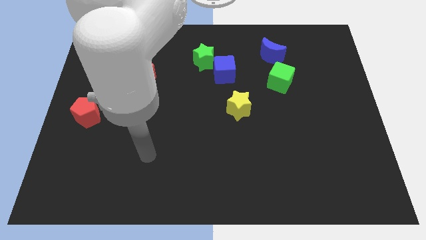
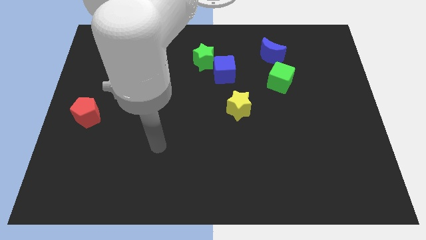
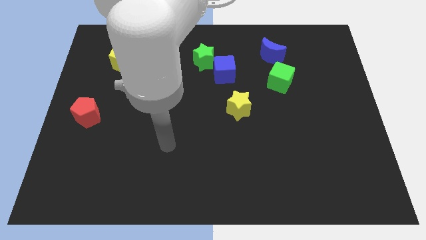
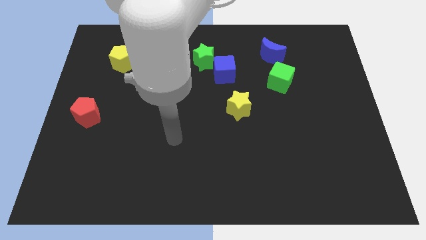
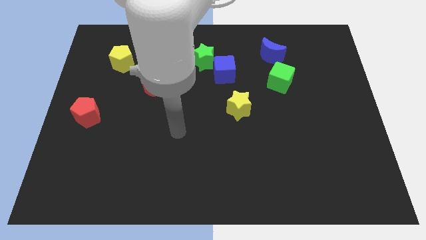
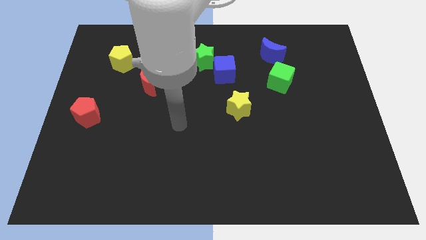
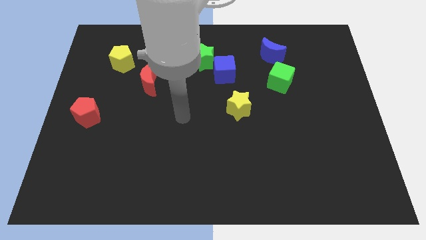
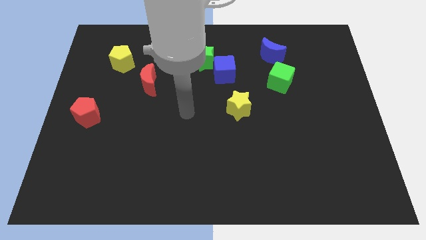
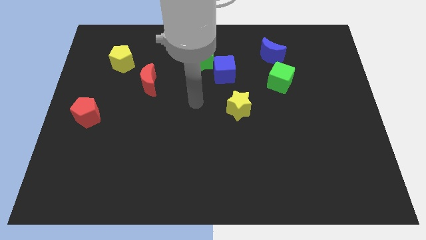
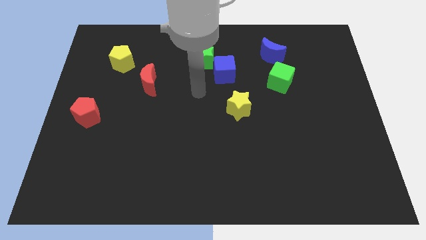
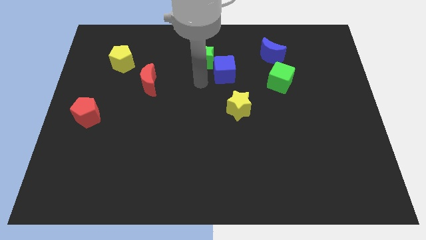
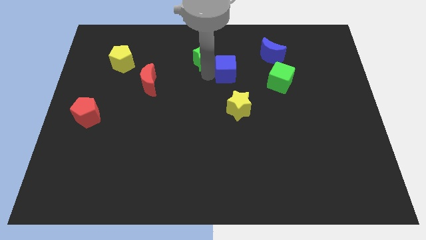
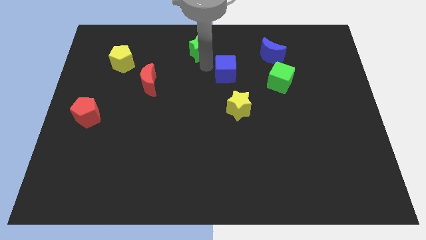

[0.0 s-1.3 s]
move the blue cube away from the green star

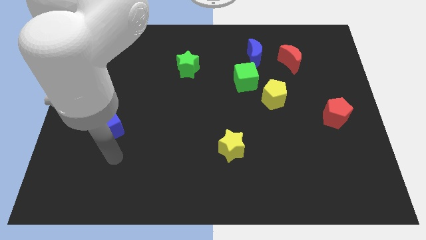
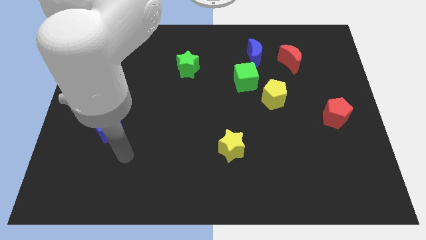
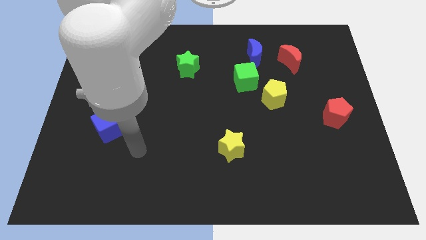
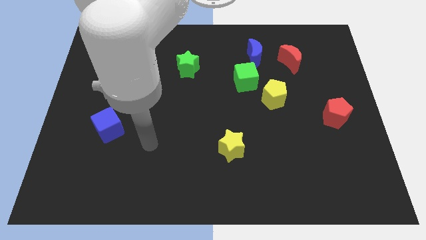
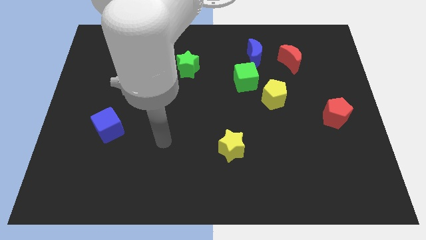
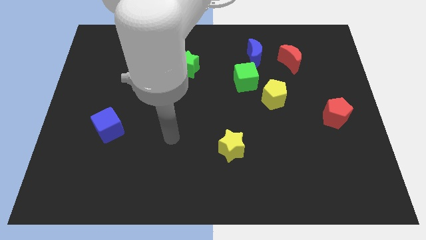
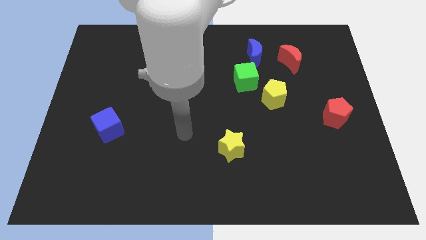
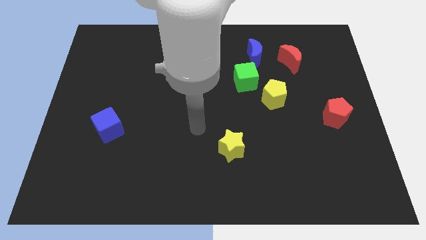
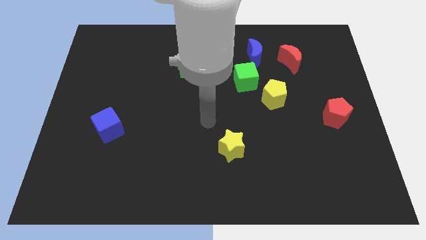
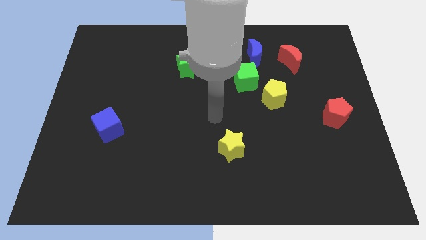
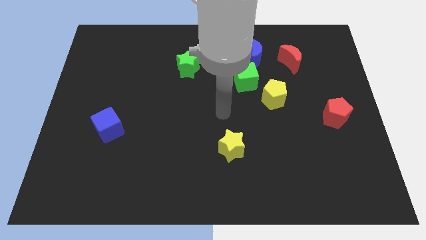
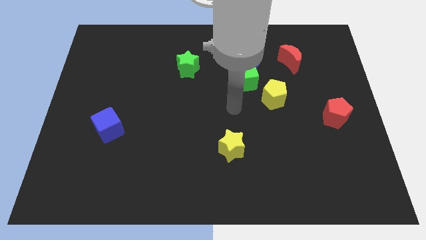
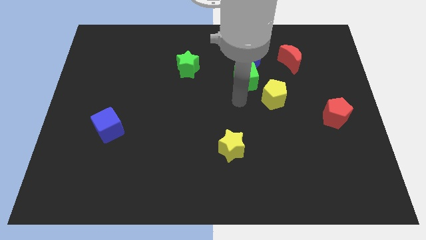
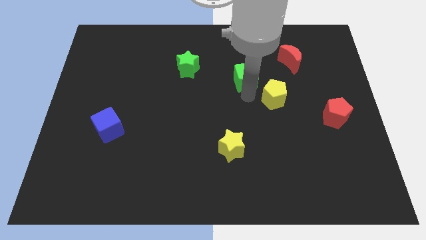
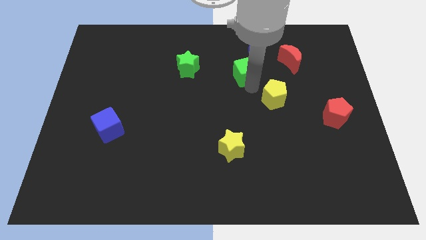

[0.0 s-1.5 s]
separate the yellow pentagon from the green cube

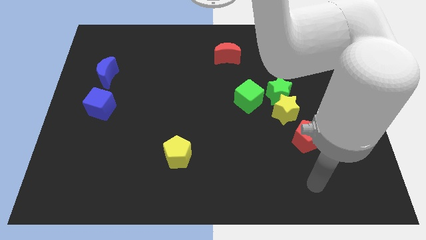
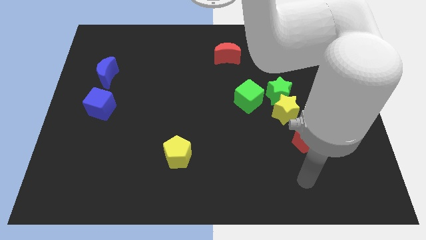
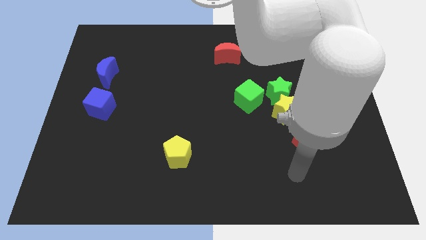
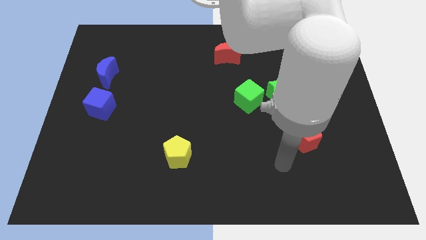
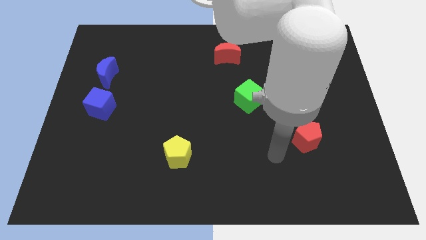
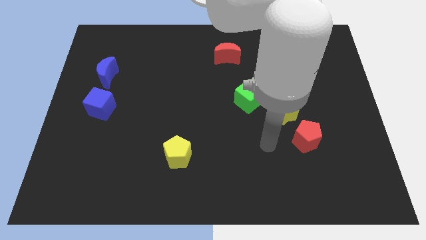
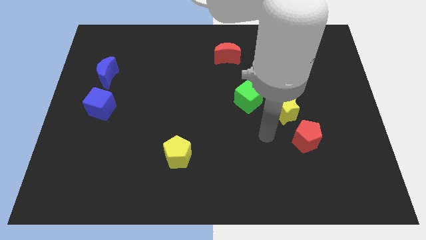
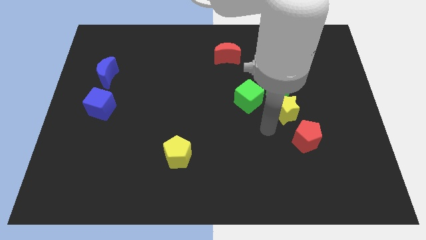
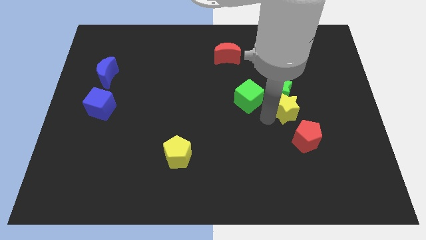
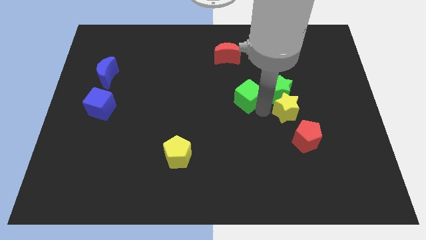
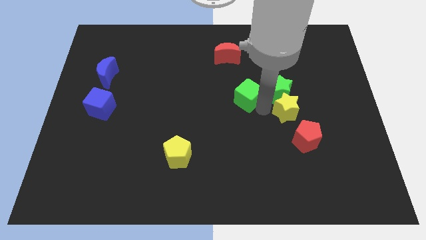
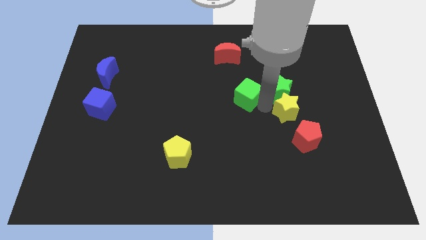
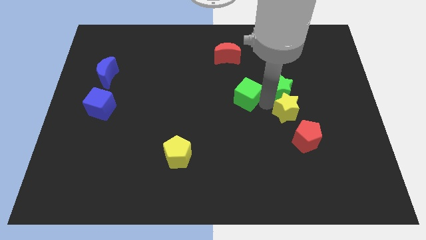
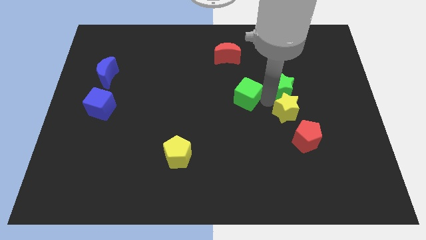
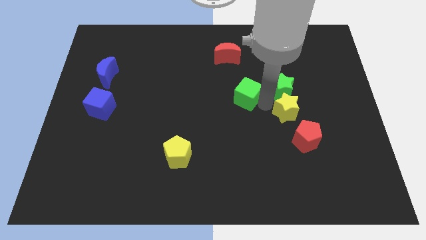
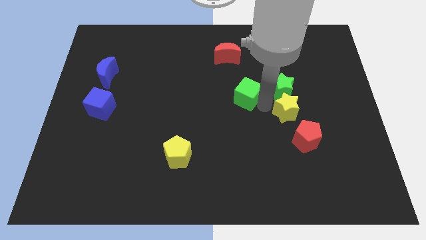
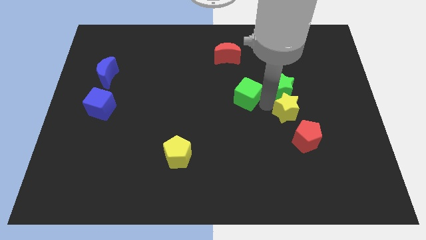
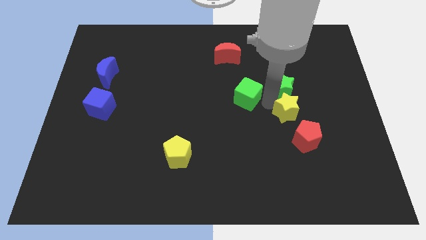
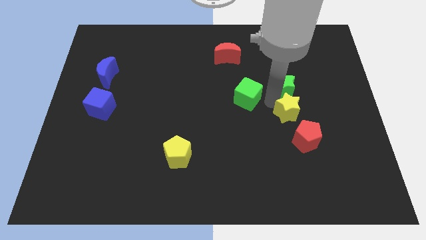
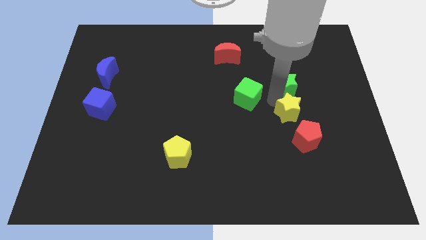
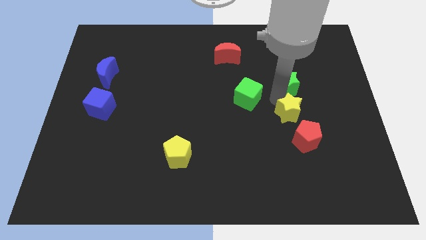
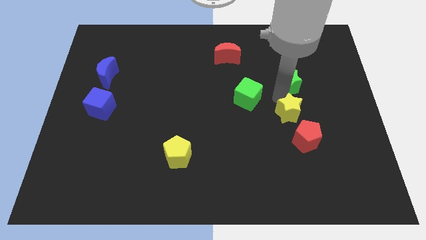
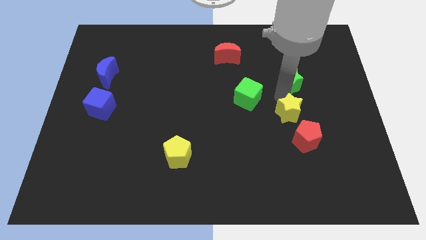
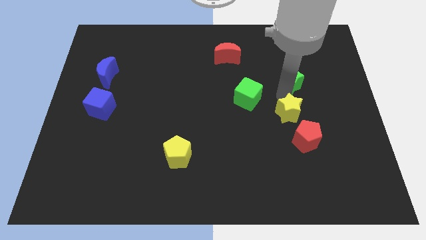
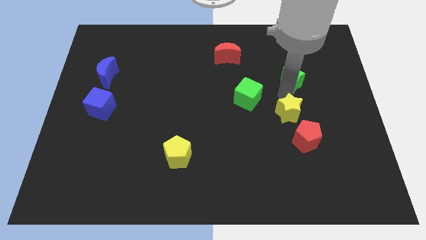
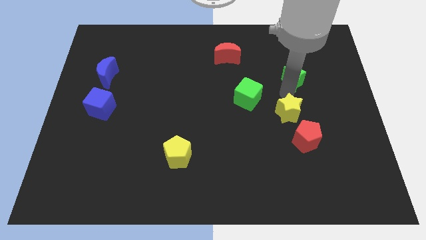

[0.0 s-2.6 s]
pull the green star apart from the yellow star and green cube

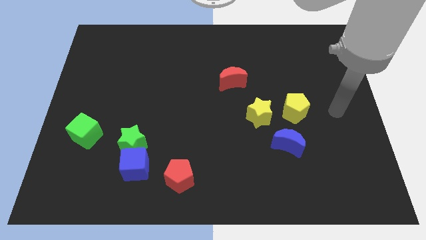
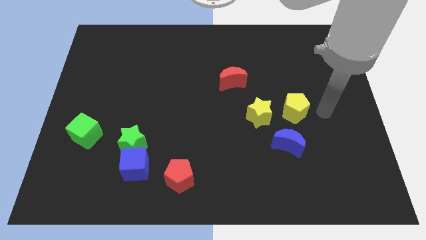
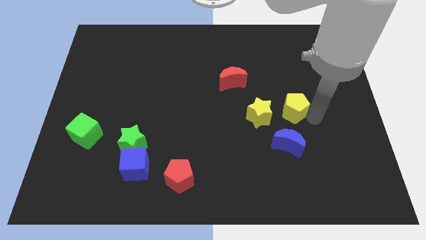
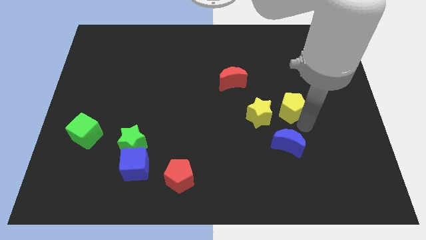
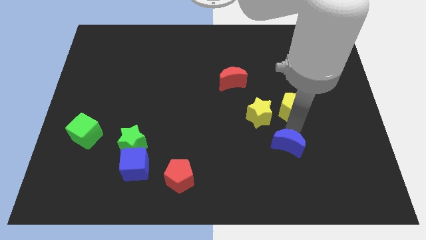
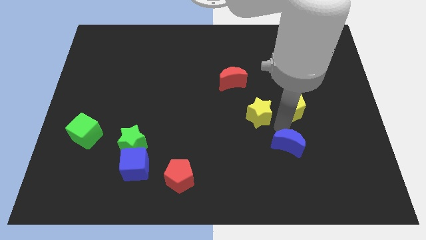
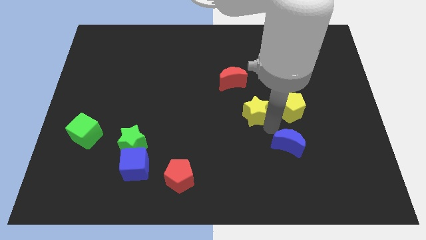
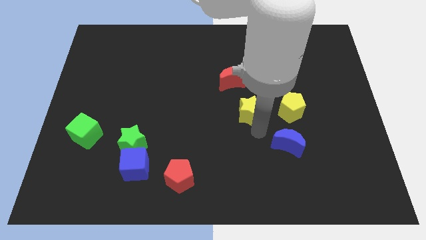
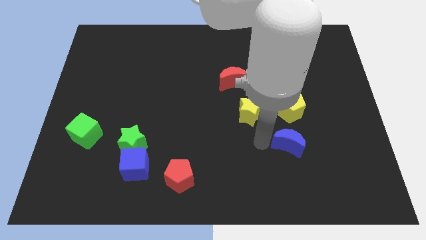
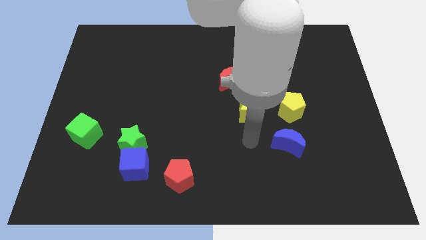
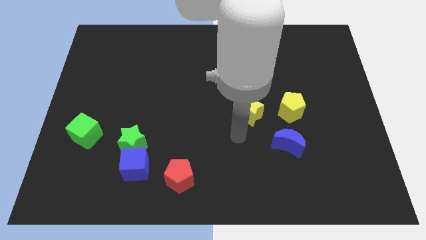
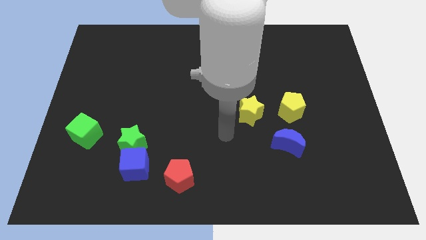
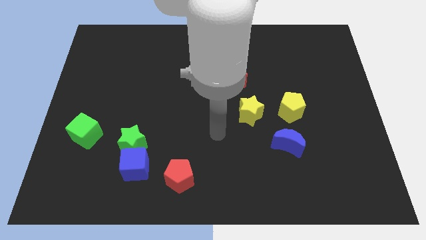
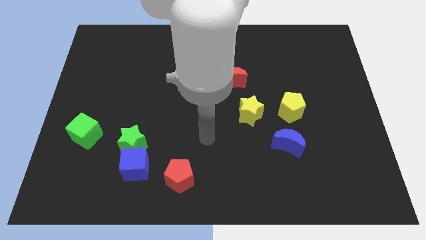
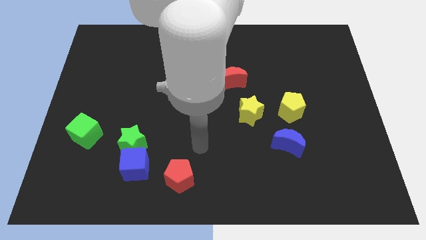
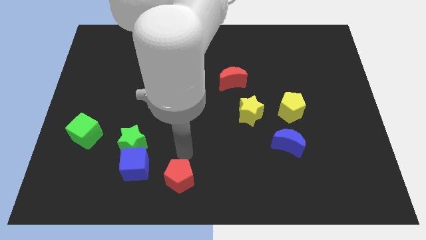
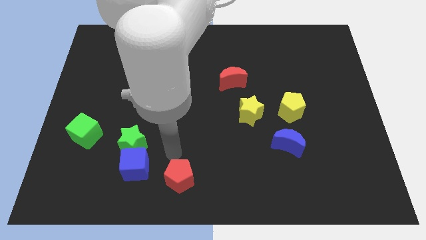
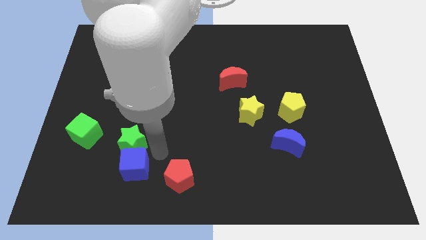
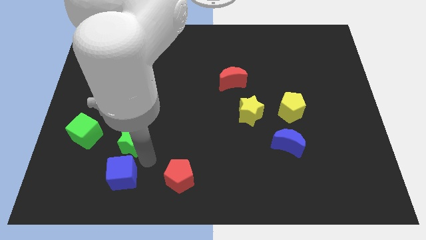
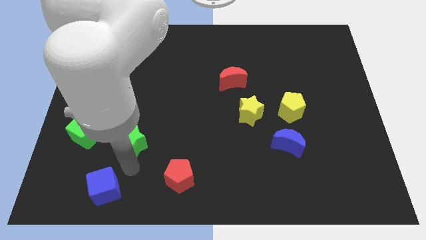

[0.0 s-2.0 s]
move the green star away from the blue cube

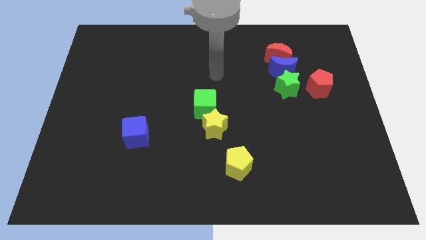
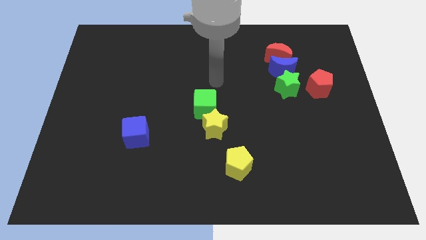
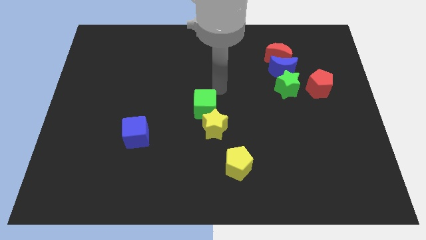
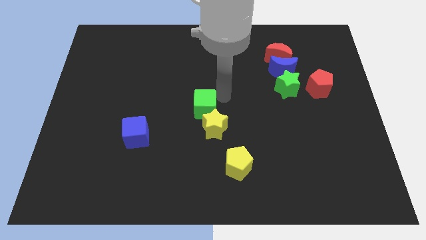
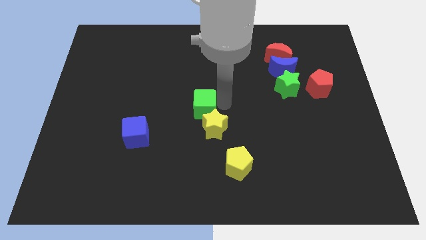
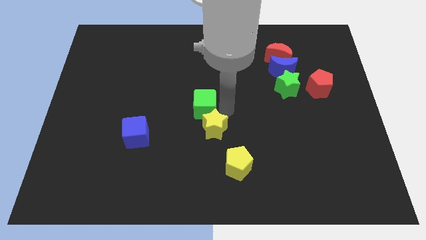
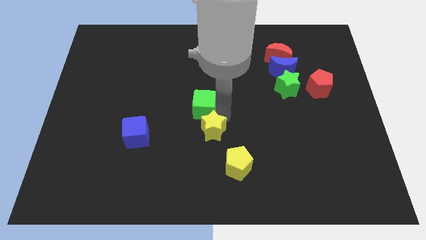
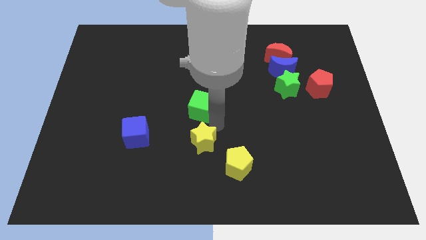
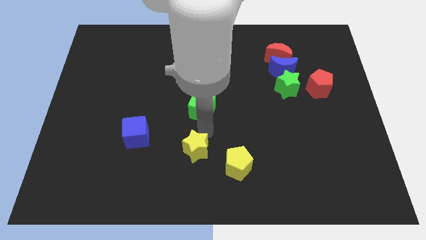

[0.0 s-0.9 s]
pull the green cube apart from the yellow star

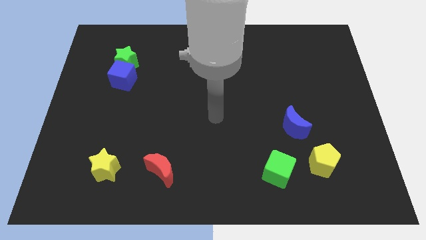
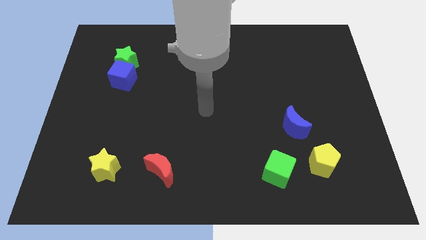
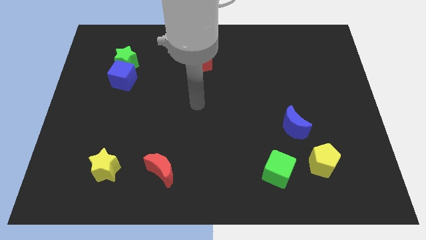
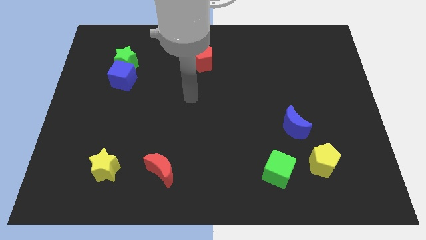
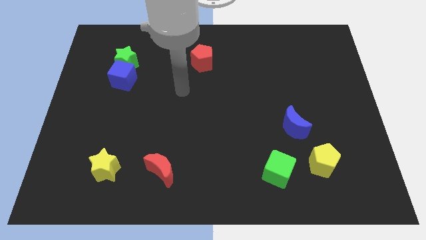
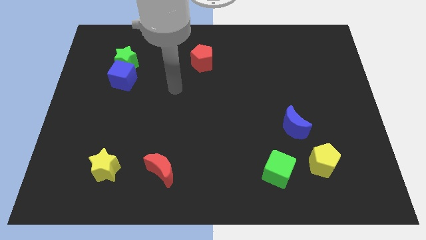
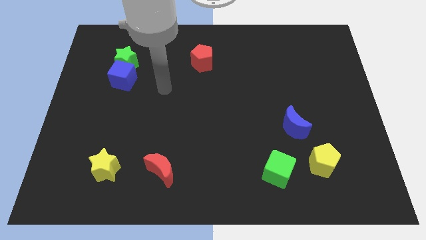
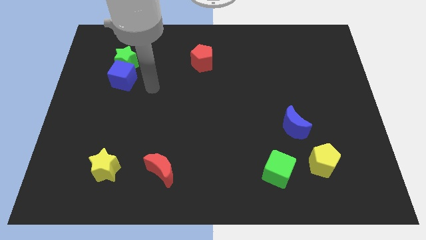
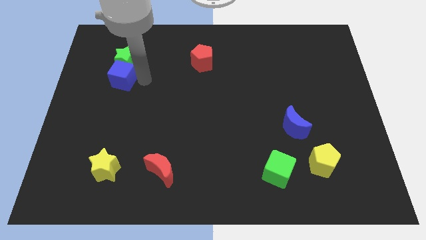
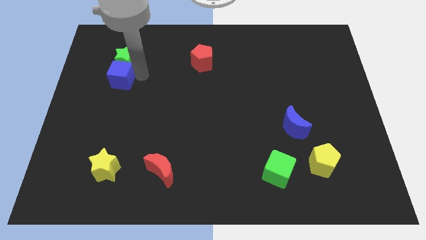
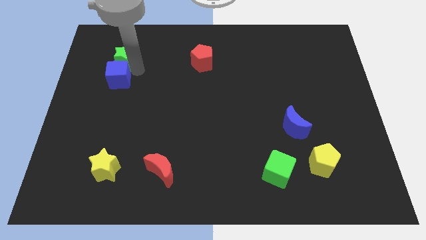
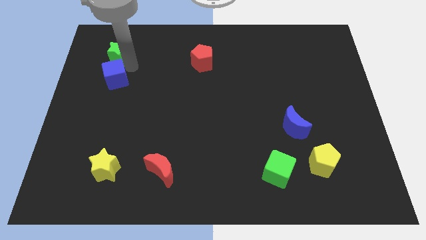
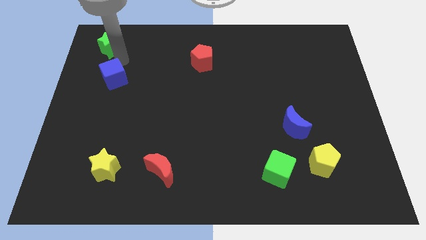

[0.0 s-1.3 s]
pull the blue cube apart from the green star
